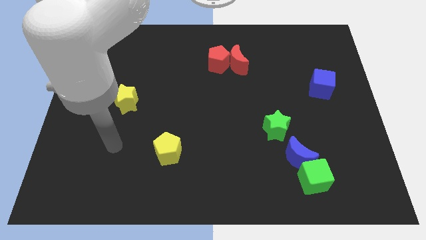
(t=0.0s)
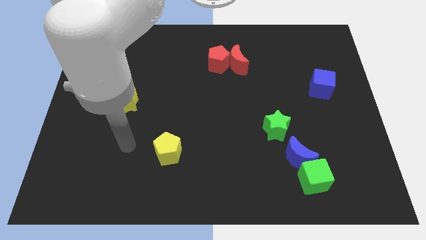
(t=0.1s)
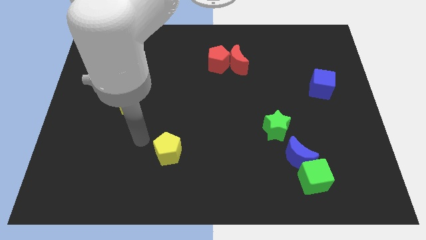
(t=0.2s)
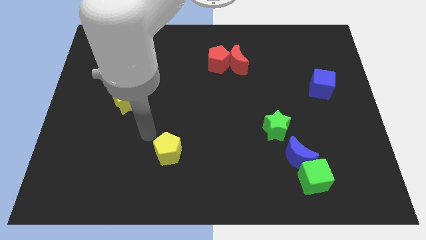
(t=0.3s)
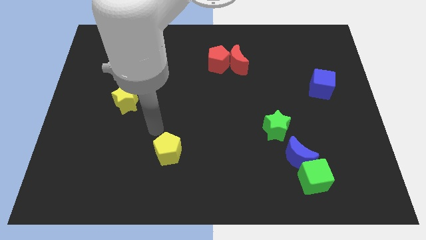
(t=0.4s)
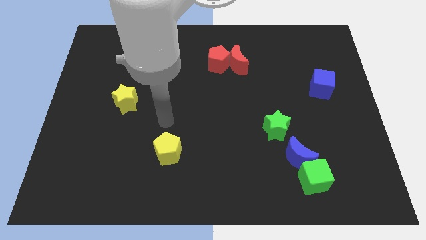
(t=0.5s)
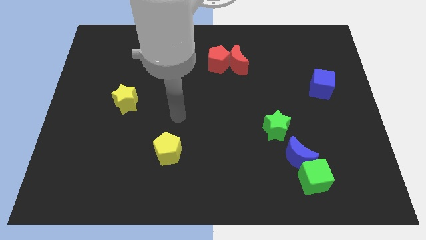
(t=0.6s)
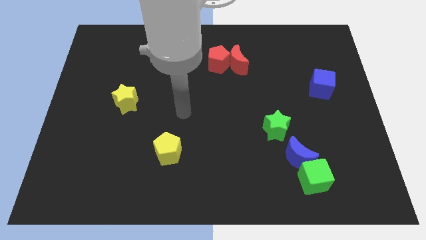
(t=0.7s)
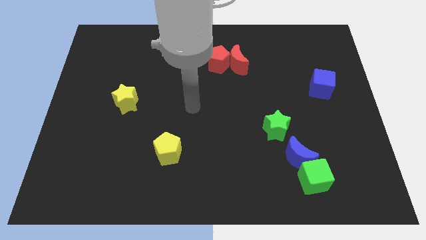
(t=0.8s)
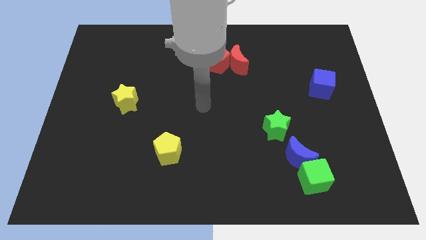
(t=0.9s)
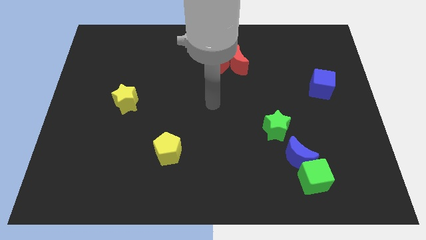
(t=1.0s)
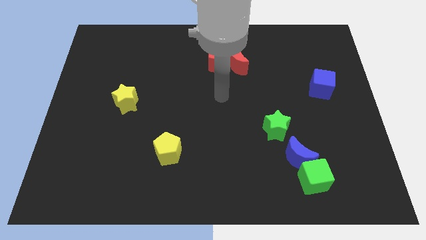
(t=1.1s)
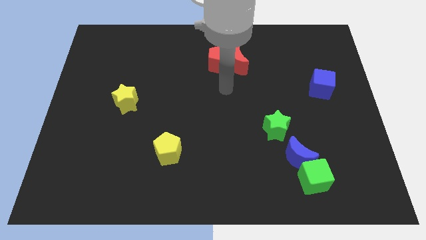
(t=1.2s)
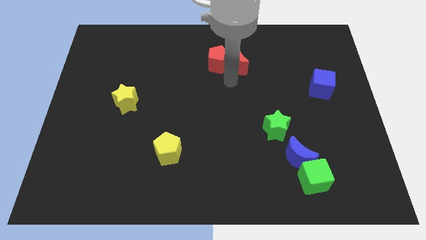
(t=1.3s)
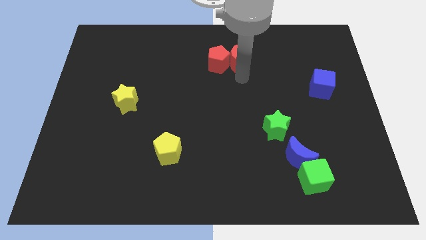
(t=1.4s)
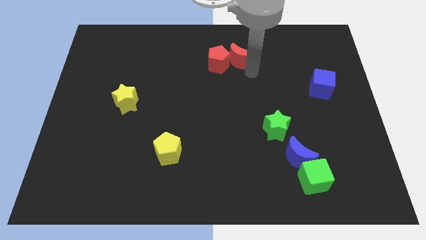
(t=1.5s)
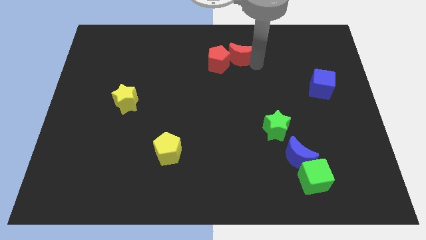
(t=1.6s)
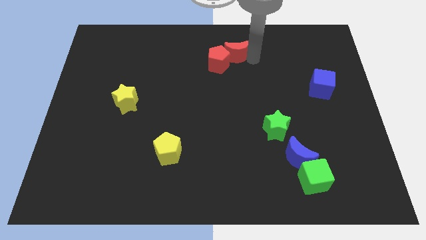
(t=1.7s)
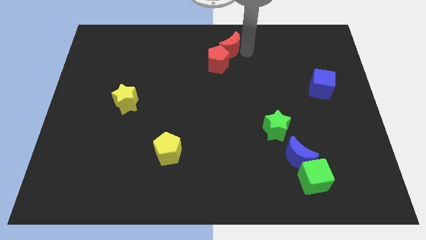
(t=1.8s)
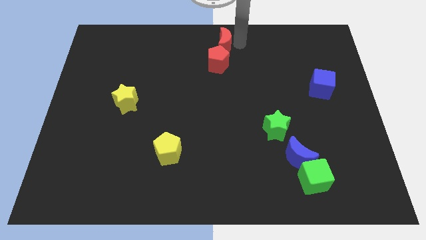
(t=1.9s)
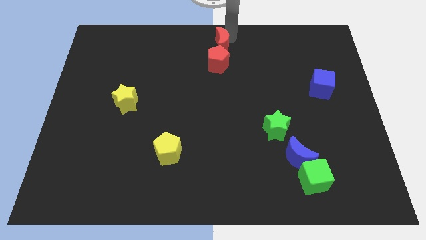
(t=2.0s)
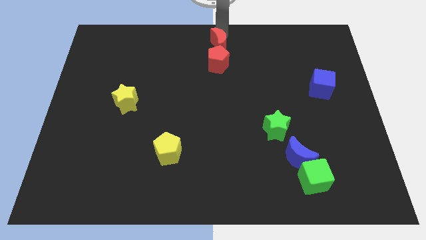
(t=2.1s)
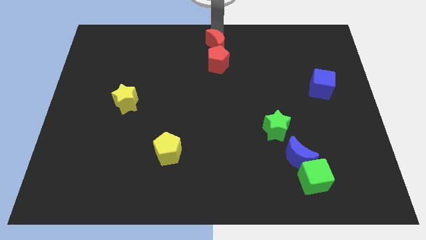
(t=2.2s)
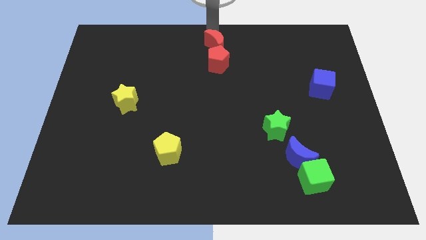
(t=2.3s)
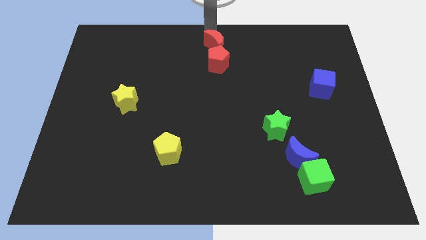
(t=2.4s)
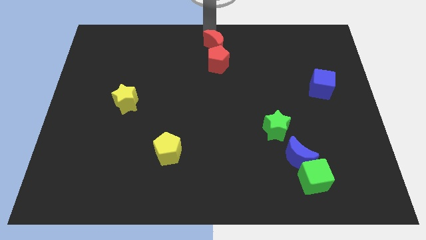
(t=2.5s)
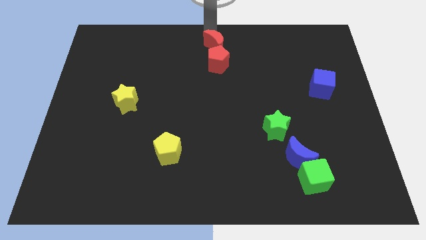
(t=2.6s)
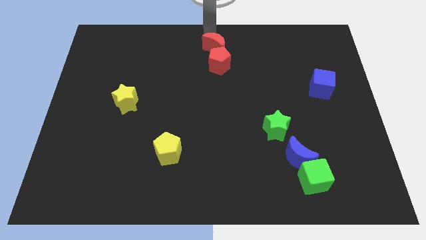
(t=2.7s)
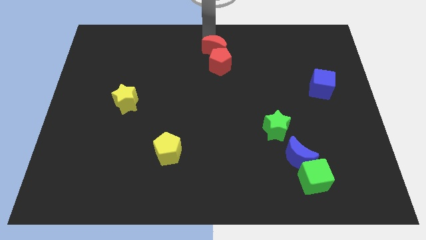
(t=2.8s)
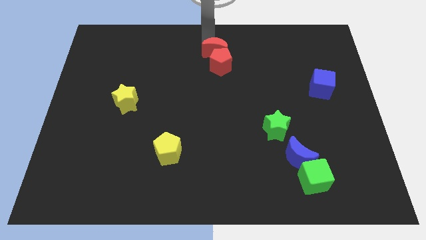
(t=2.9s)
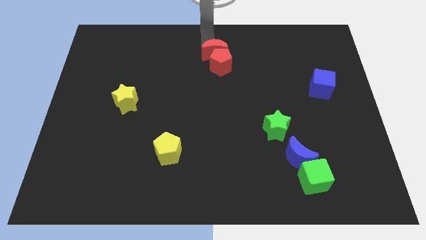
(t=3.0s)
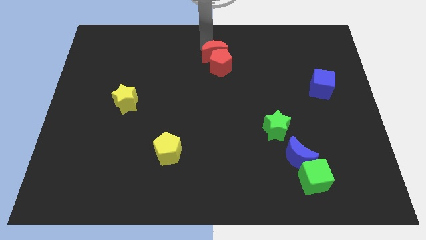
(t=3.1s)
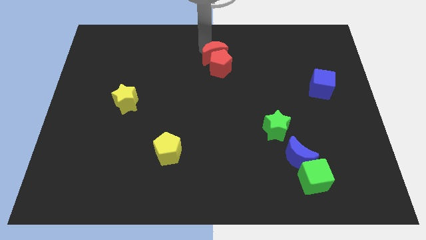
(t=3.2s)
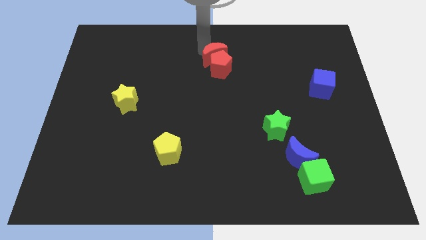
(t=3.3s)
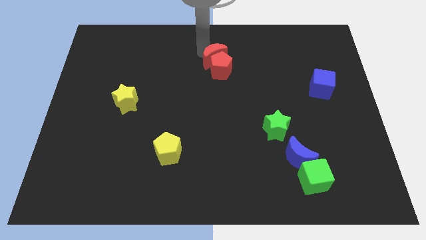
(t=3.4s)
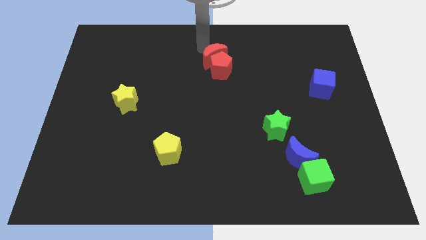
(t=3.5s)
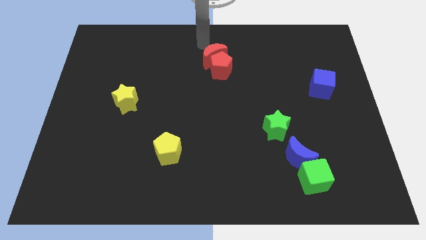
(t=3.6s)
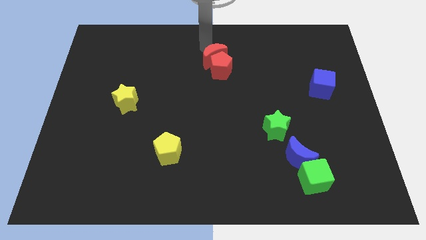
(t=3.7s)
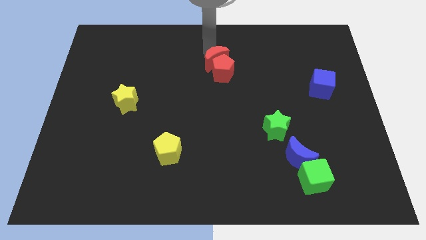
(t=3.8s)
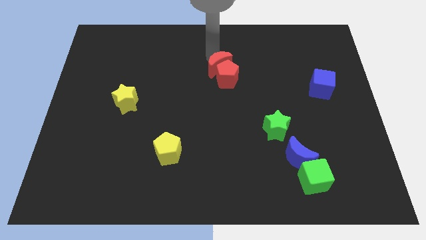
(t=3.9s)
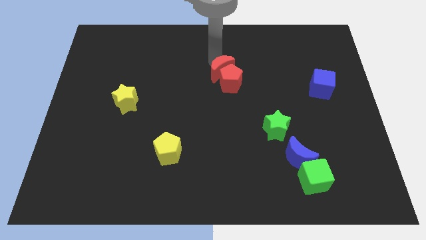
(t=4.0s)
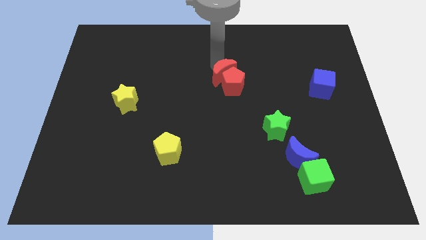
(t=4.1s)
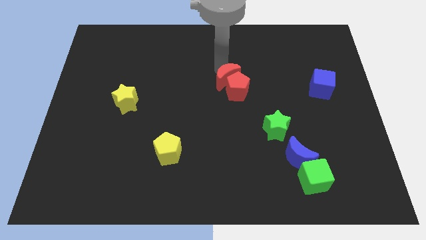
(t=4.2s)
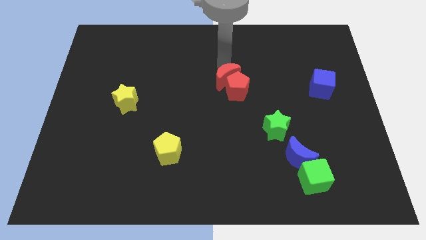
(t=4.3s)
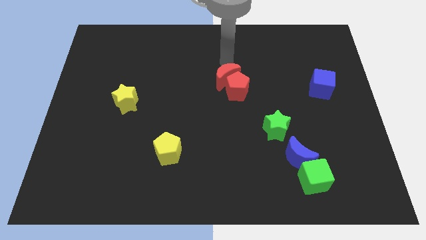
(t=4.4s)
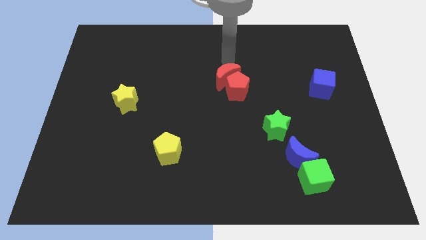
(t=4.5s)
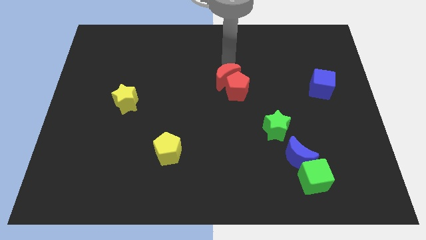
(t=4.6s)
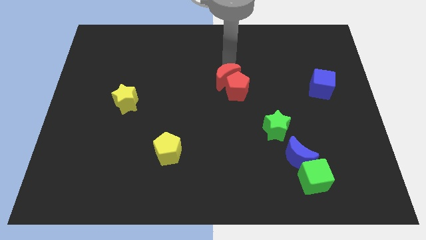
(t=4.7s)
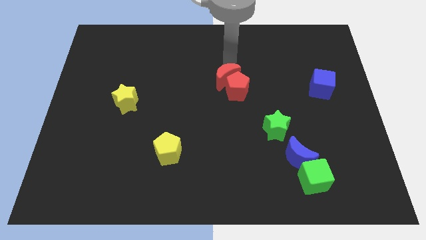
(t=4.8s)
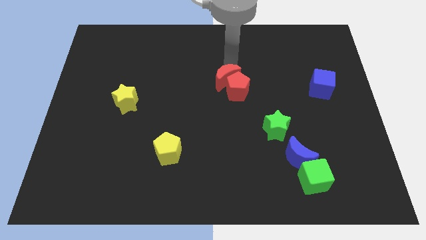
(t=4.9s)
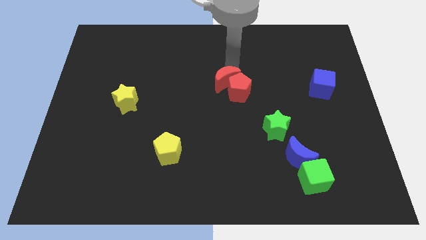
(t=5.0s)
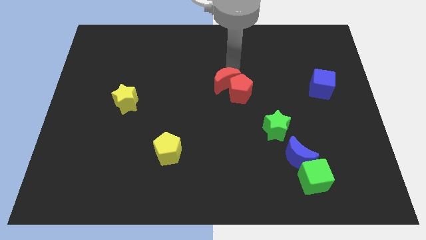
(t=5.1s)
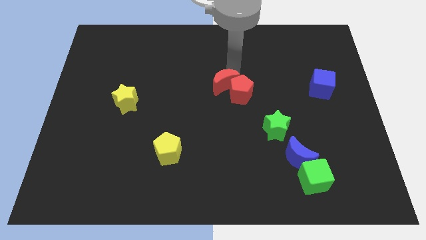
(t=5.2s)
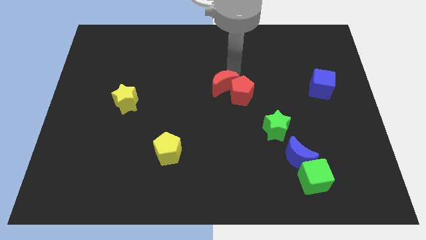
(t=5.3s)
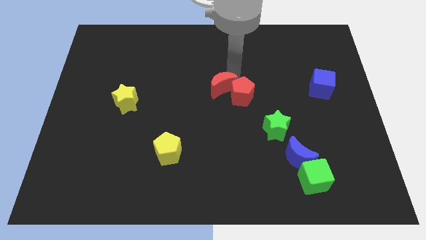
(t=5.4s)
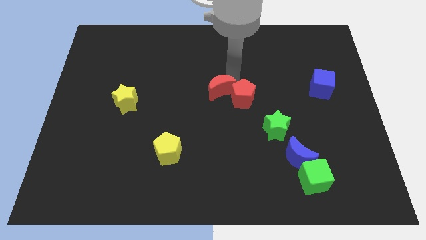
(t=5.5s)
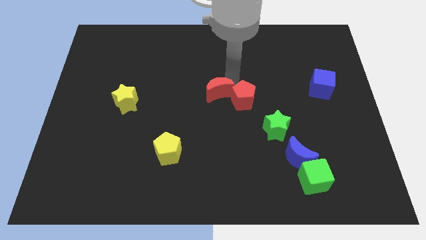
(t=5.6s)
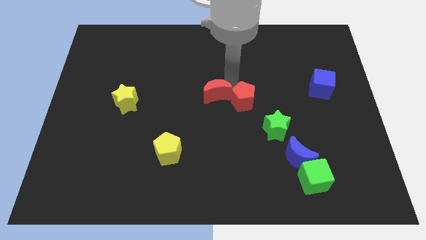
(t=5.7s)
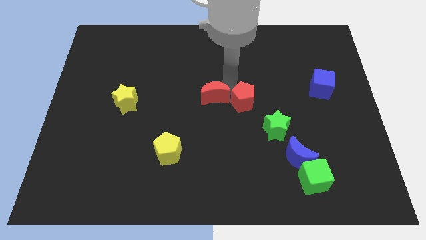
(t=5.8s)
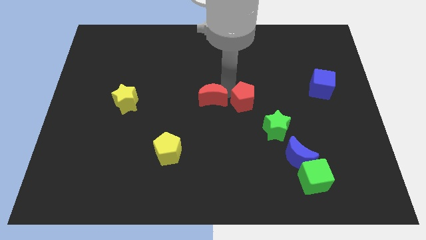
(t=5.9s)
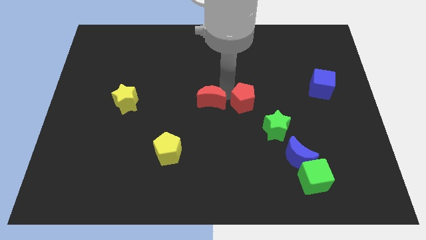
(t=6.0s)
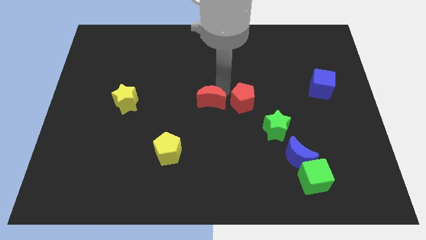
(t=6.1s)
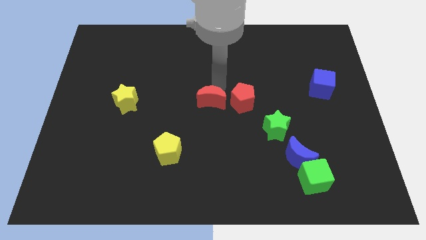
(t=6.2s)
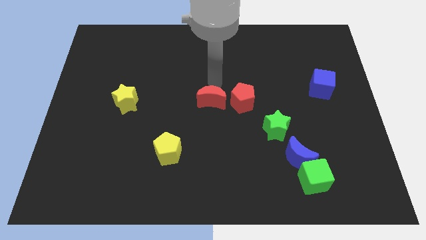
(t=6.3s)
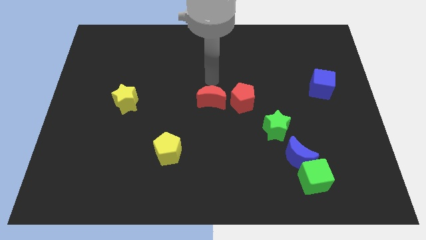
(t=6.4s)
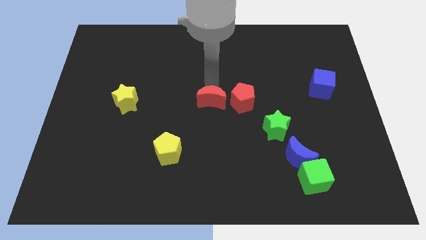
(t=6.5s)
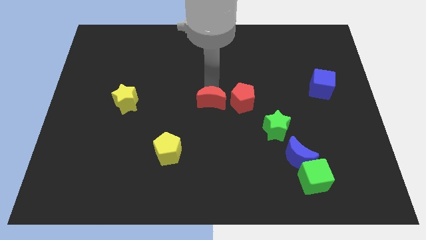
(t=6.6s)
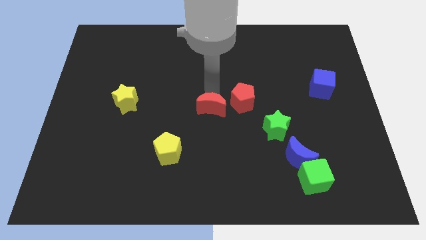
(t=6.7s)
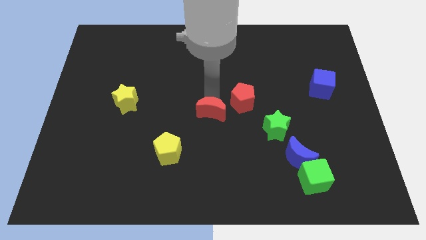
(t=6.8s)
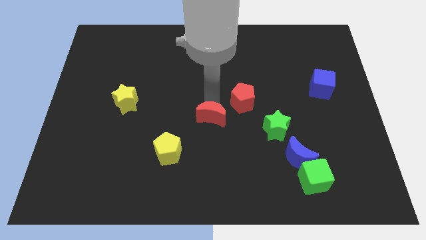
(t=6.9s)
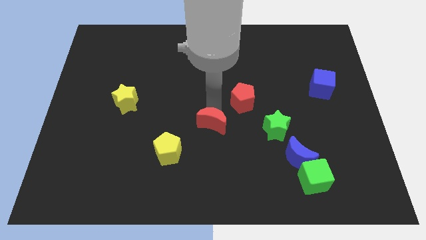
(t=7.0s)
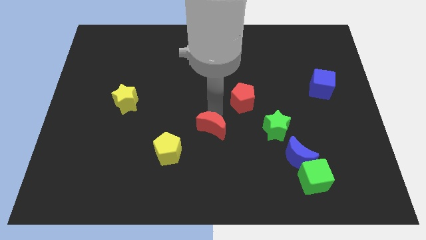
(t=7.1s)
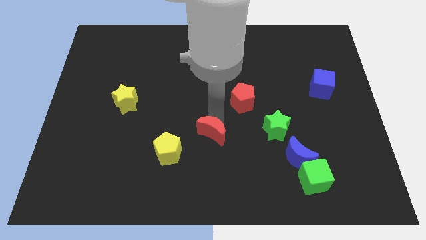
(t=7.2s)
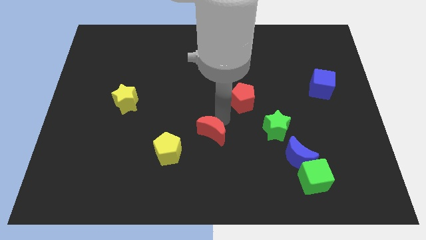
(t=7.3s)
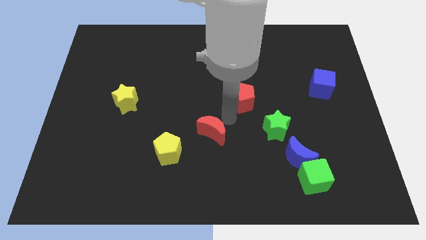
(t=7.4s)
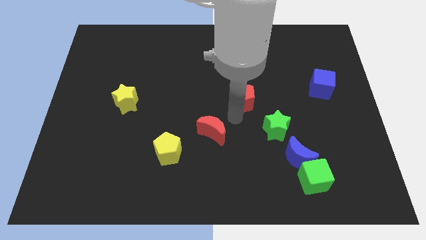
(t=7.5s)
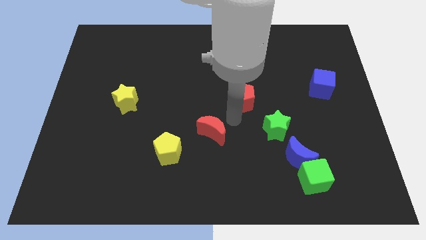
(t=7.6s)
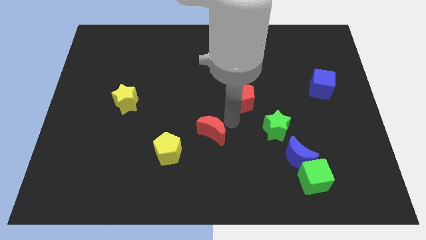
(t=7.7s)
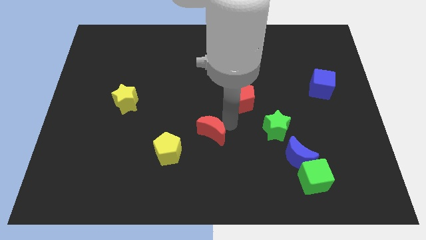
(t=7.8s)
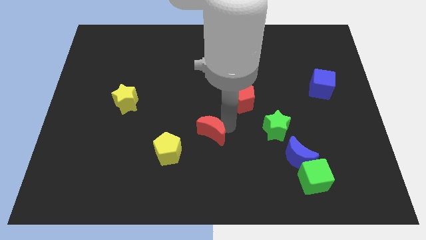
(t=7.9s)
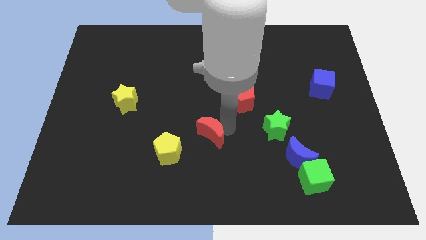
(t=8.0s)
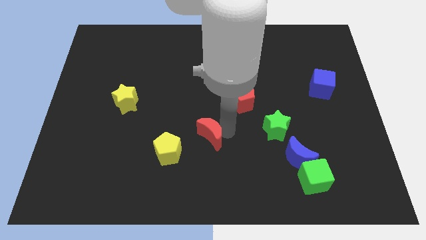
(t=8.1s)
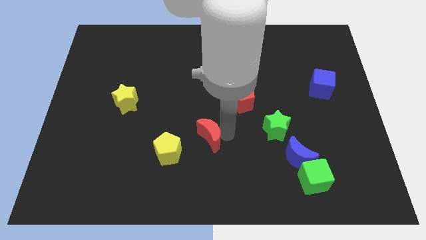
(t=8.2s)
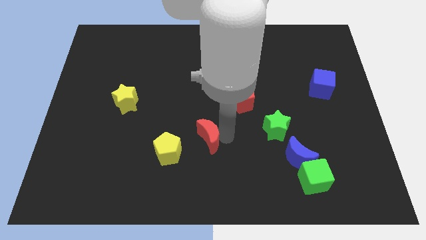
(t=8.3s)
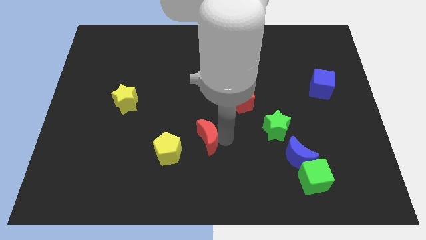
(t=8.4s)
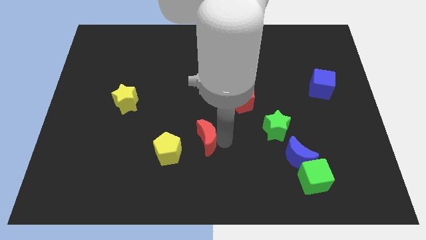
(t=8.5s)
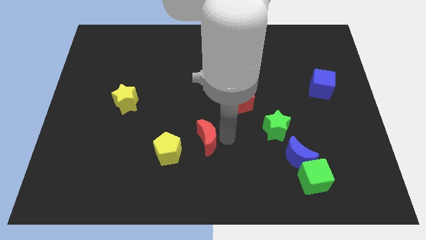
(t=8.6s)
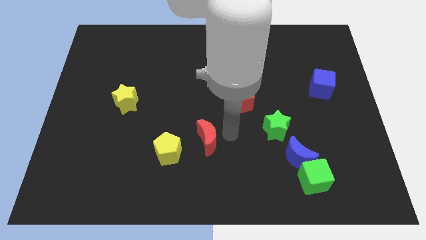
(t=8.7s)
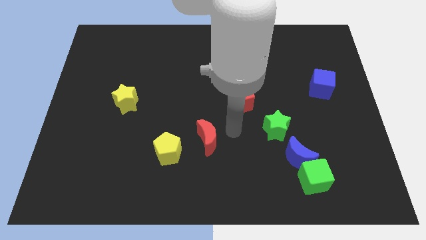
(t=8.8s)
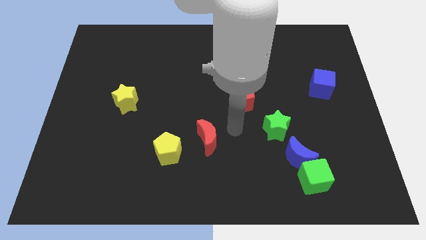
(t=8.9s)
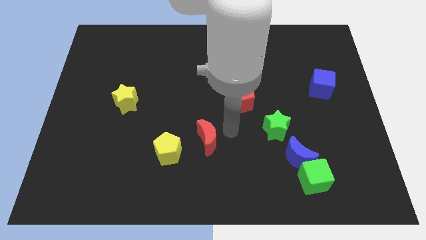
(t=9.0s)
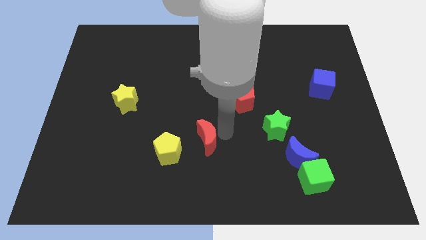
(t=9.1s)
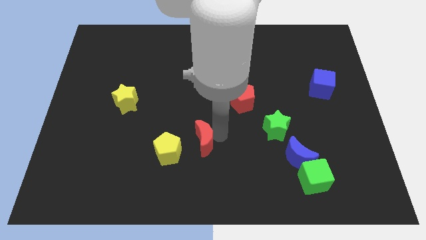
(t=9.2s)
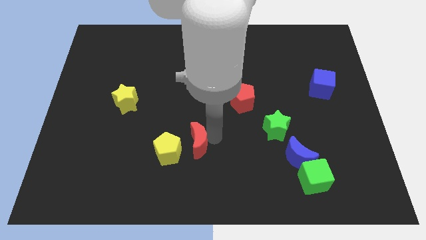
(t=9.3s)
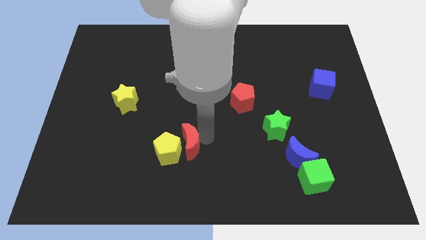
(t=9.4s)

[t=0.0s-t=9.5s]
slide the red moon diagonally down and to the right of the yellow pentagon
